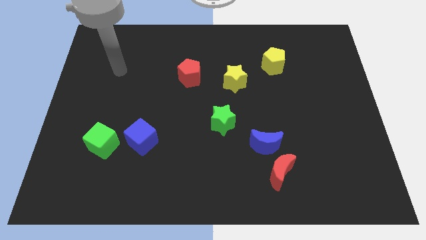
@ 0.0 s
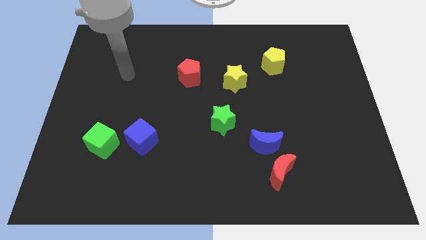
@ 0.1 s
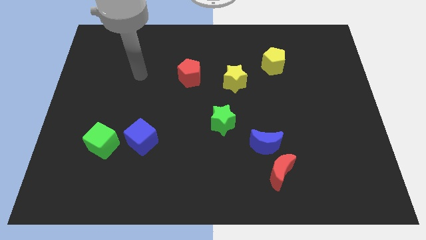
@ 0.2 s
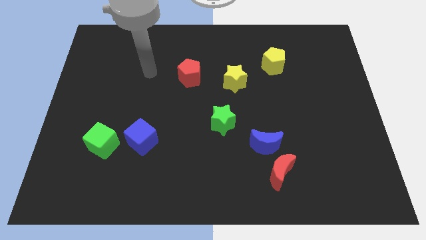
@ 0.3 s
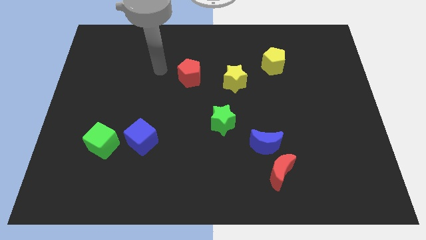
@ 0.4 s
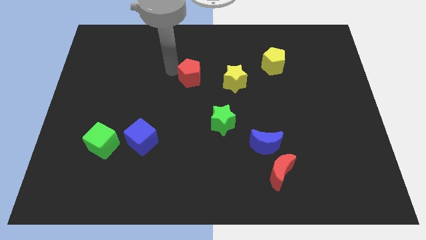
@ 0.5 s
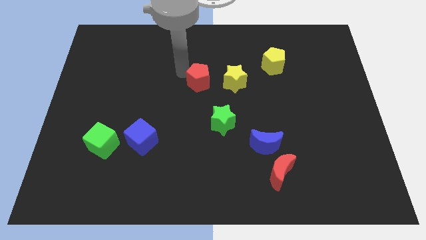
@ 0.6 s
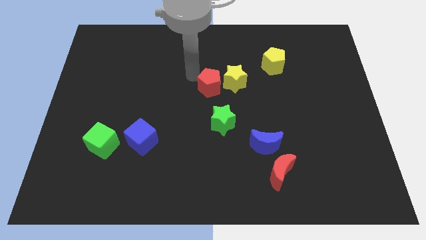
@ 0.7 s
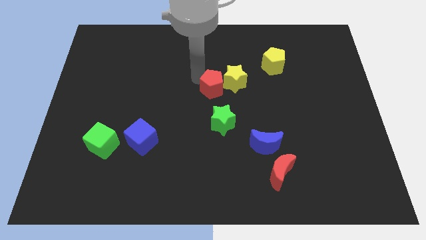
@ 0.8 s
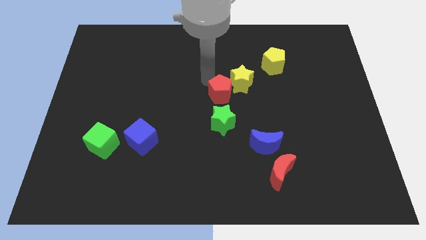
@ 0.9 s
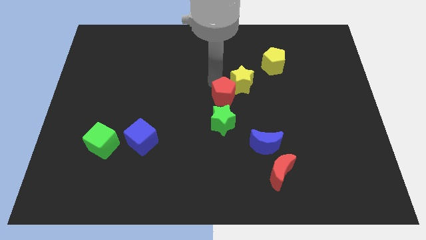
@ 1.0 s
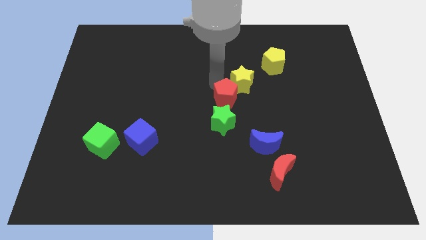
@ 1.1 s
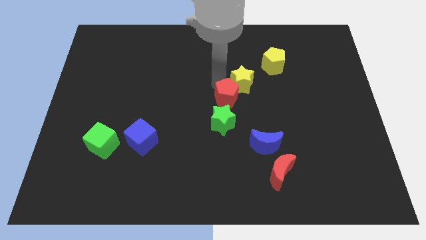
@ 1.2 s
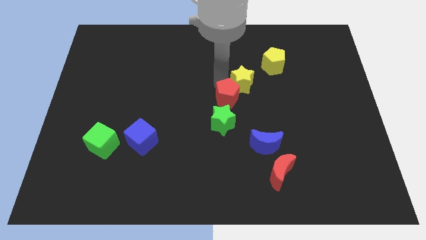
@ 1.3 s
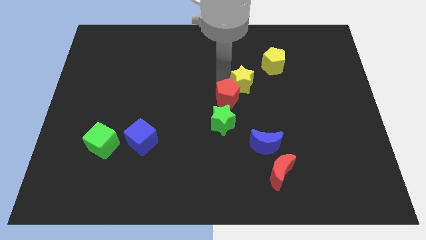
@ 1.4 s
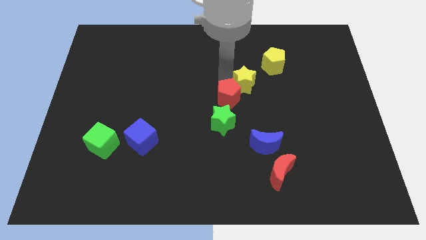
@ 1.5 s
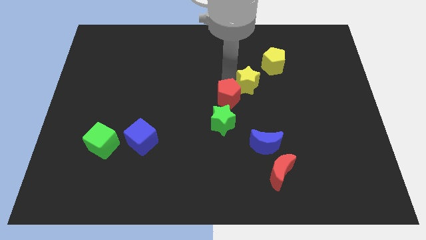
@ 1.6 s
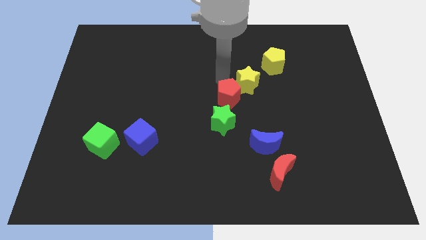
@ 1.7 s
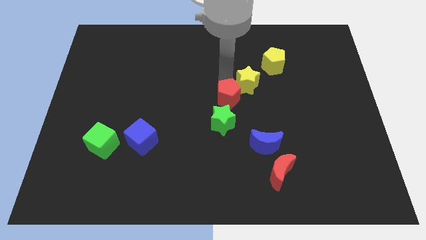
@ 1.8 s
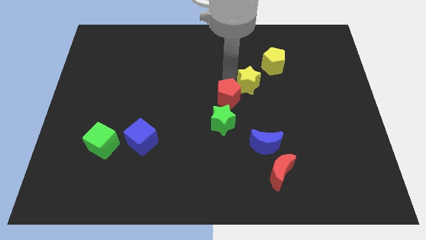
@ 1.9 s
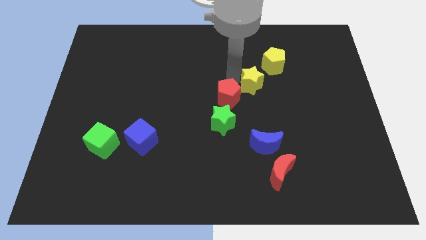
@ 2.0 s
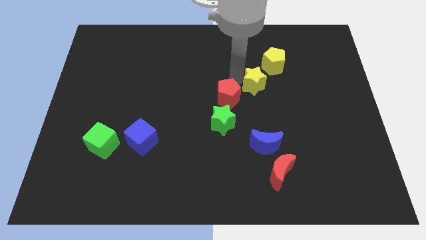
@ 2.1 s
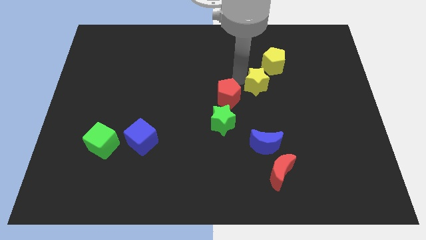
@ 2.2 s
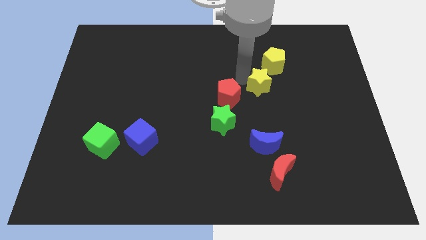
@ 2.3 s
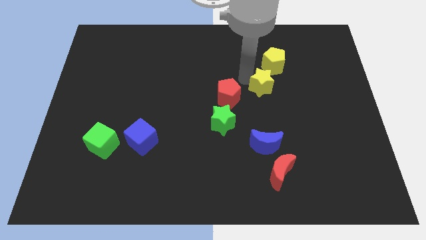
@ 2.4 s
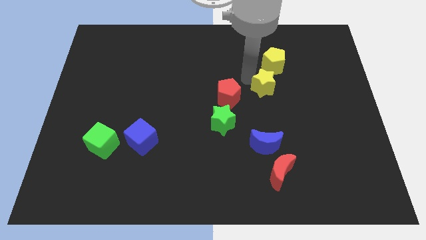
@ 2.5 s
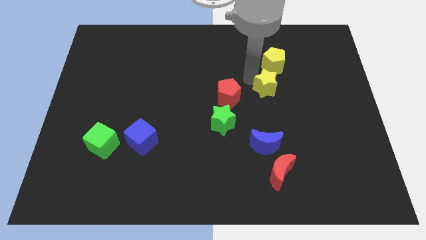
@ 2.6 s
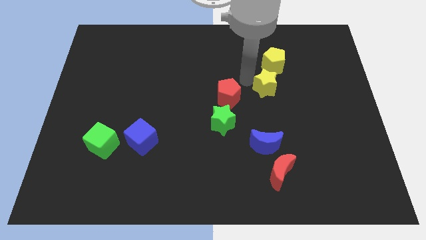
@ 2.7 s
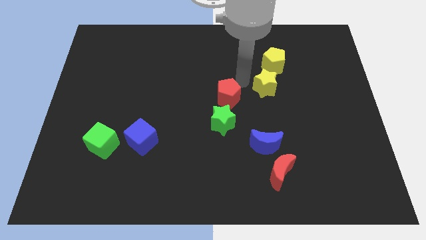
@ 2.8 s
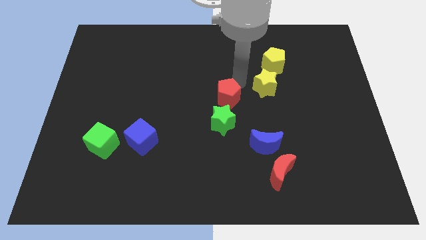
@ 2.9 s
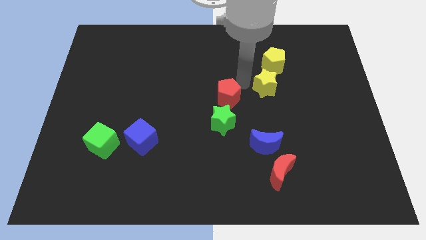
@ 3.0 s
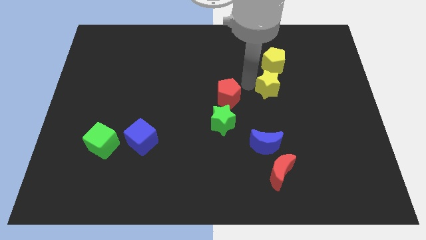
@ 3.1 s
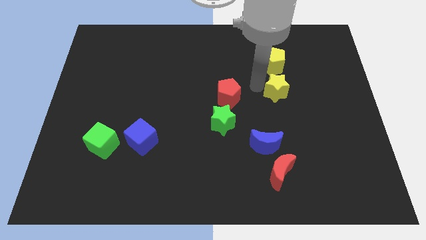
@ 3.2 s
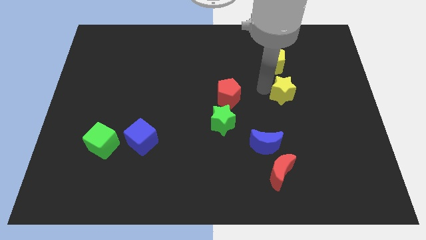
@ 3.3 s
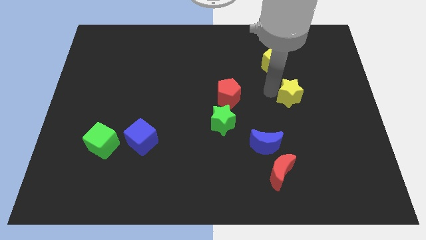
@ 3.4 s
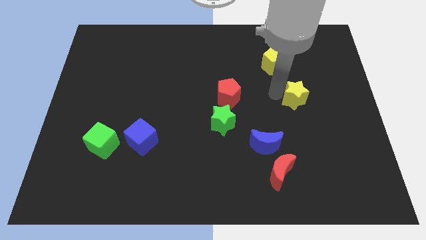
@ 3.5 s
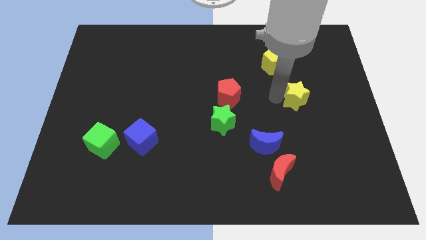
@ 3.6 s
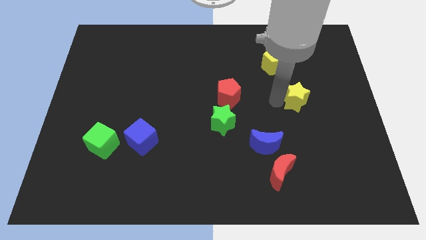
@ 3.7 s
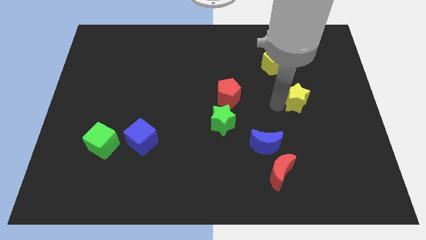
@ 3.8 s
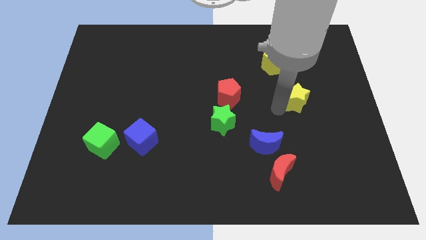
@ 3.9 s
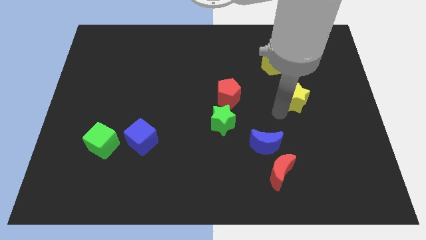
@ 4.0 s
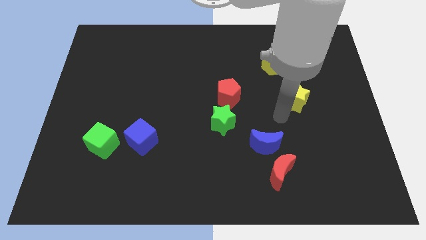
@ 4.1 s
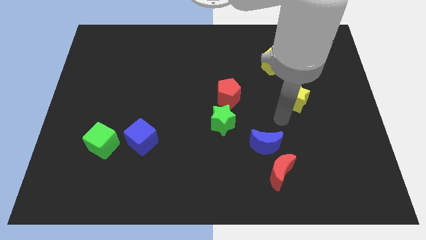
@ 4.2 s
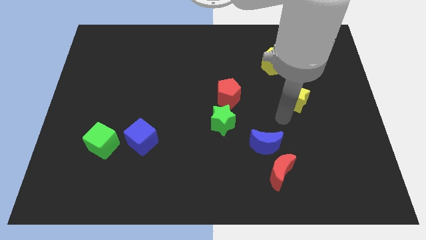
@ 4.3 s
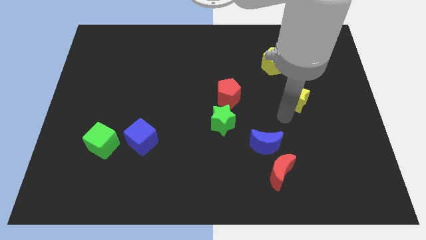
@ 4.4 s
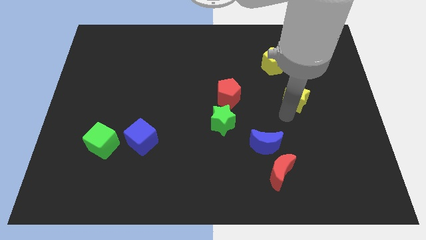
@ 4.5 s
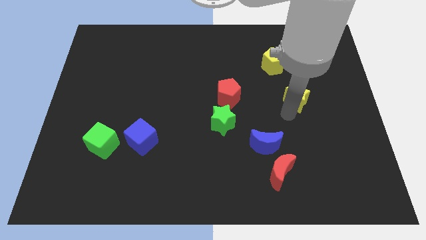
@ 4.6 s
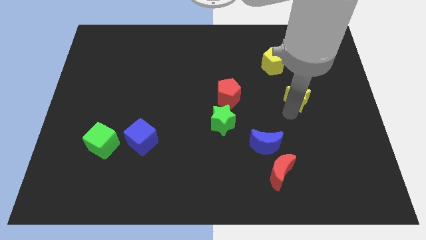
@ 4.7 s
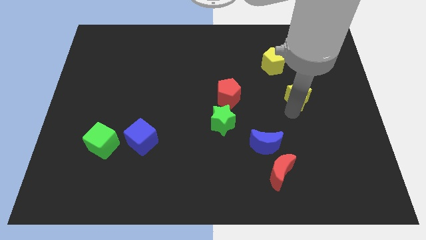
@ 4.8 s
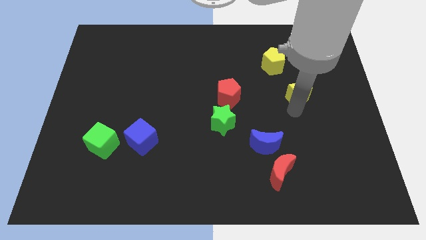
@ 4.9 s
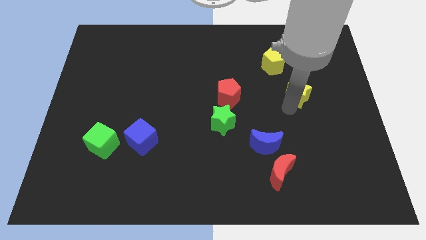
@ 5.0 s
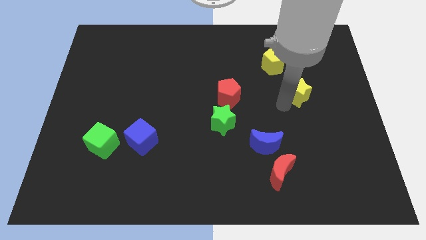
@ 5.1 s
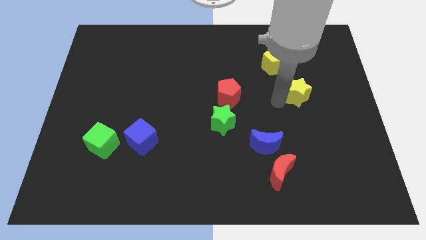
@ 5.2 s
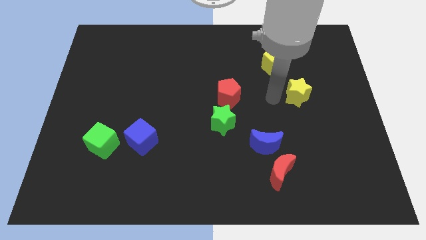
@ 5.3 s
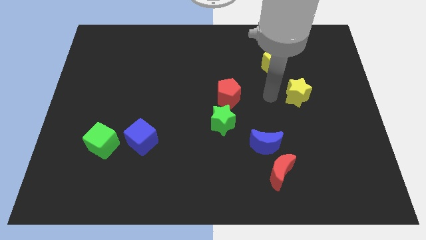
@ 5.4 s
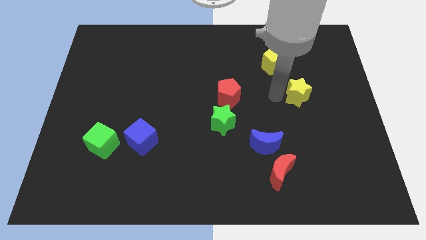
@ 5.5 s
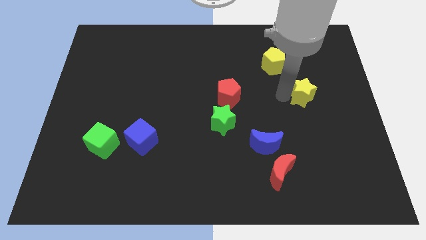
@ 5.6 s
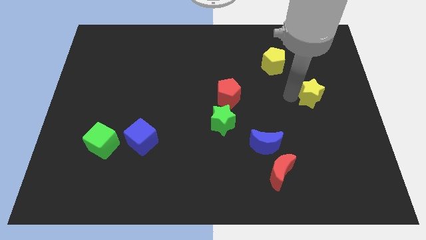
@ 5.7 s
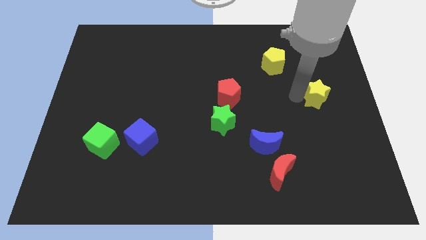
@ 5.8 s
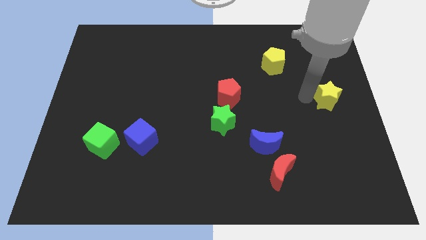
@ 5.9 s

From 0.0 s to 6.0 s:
move the yellow star to the right side

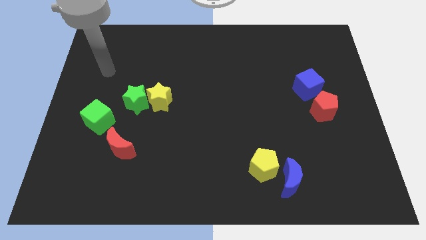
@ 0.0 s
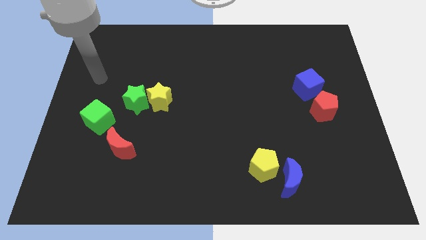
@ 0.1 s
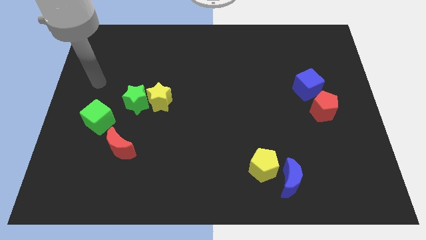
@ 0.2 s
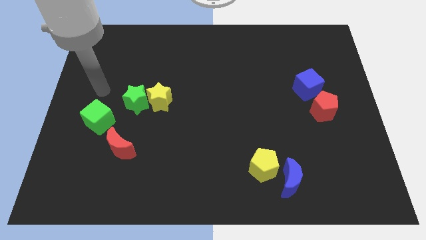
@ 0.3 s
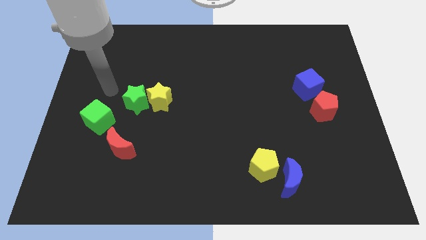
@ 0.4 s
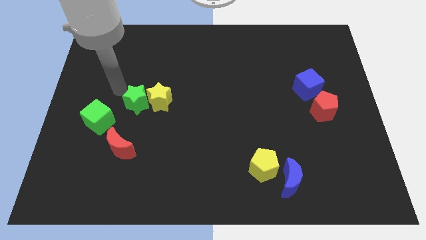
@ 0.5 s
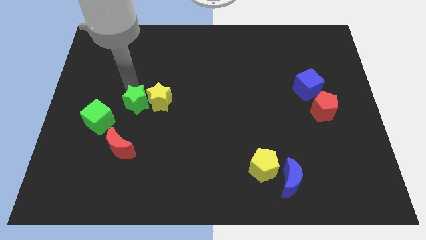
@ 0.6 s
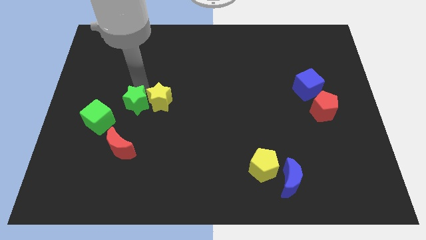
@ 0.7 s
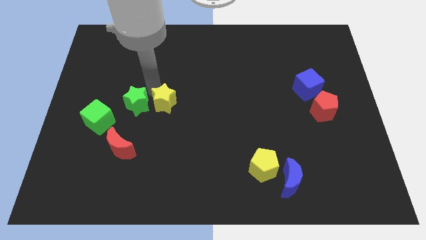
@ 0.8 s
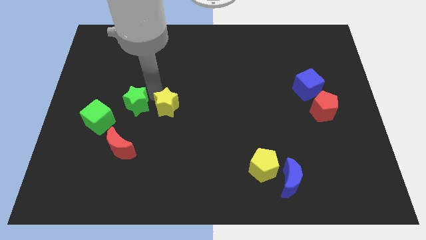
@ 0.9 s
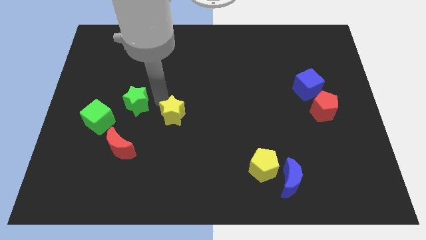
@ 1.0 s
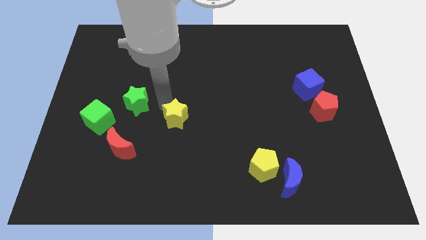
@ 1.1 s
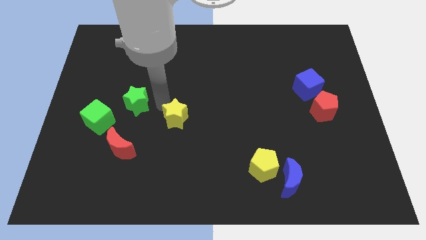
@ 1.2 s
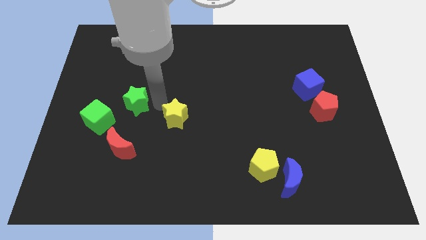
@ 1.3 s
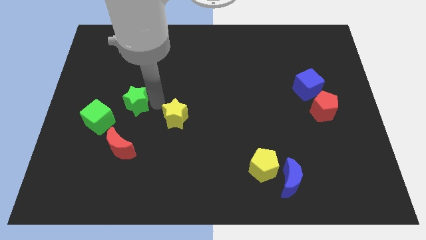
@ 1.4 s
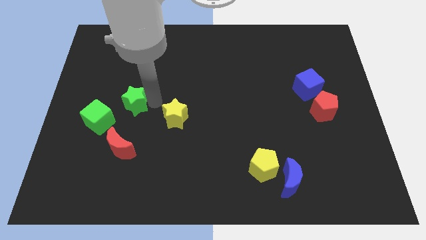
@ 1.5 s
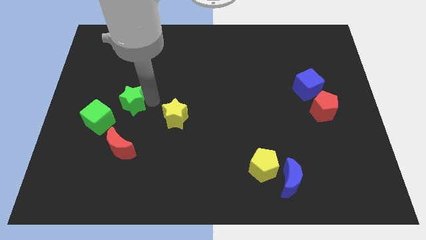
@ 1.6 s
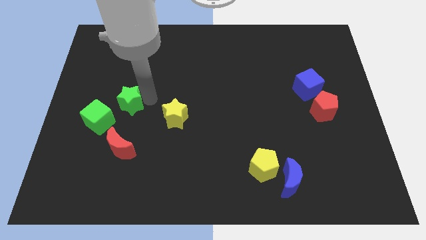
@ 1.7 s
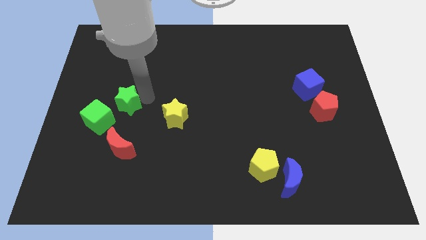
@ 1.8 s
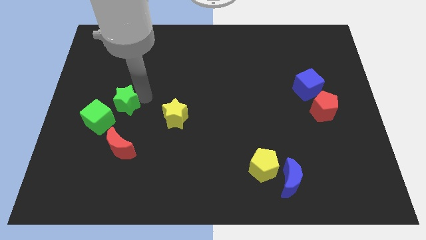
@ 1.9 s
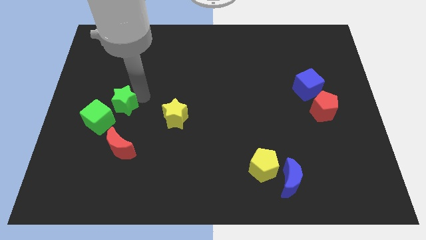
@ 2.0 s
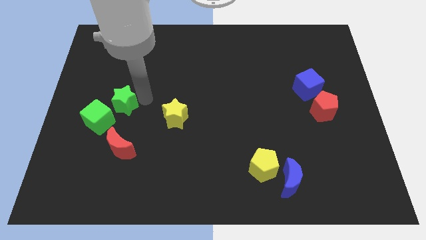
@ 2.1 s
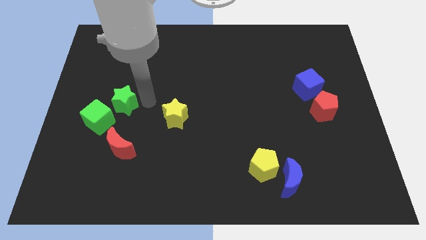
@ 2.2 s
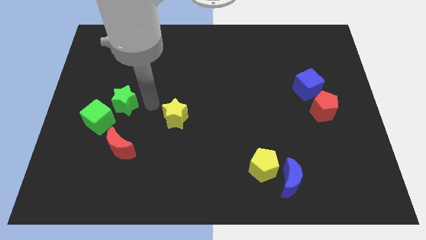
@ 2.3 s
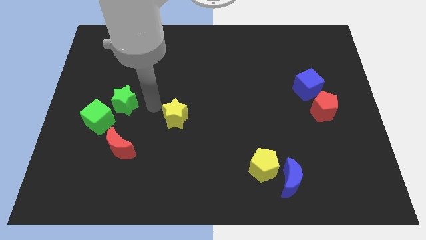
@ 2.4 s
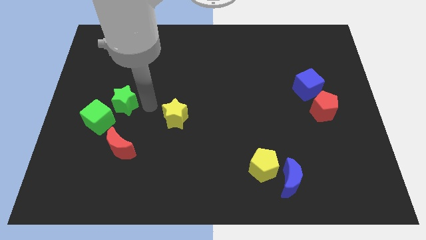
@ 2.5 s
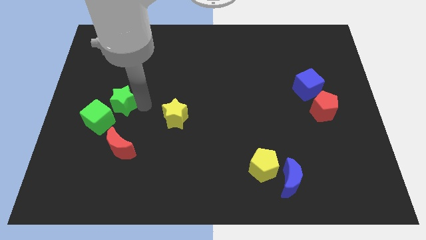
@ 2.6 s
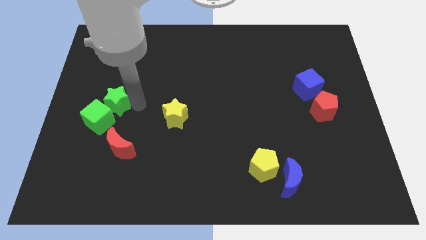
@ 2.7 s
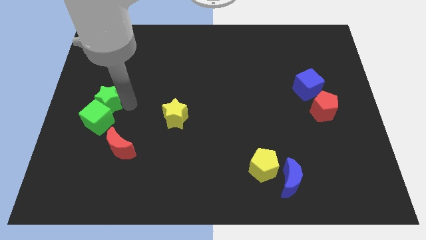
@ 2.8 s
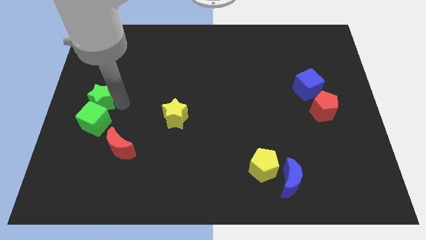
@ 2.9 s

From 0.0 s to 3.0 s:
put the green star to the left side of the board
